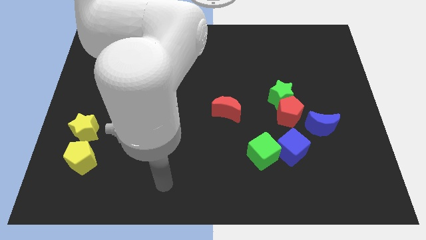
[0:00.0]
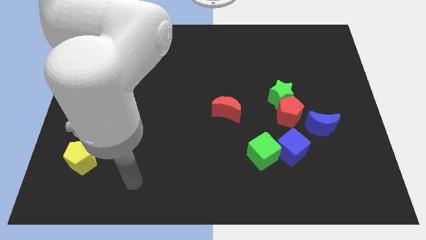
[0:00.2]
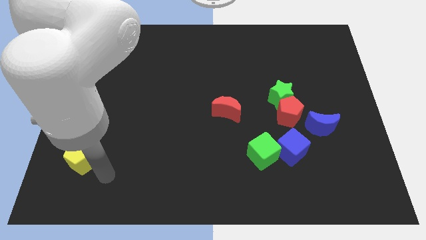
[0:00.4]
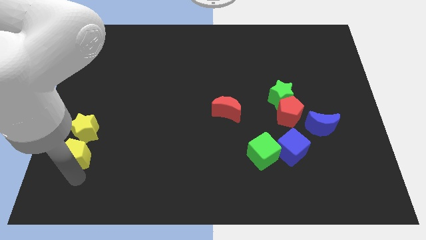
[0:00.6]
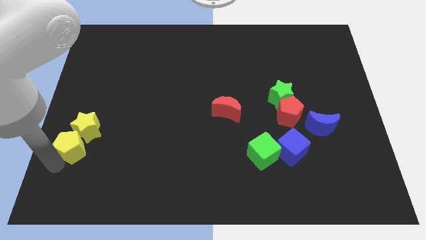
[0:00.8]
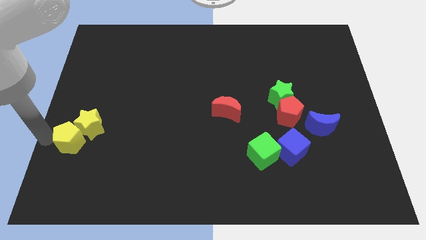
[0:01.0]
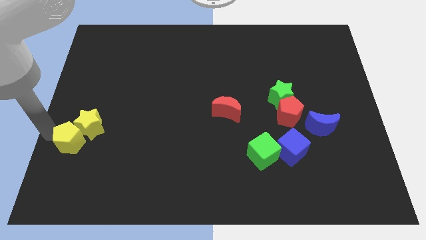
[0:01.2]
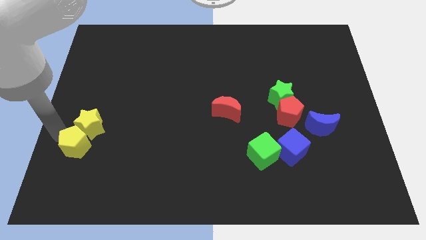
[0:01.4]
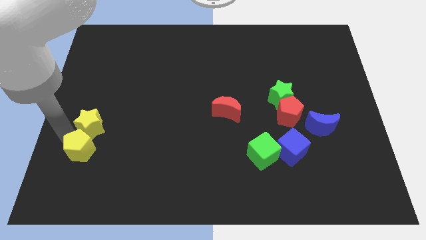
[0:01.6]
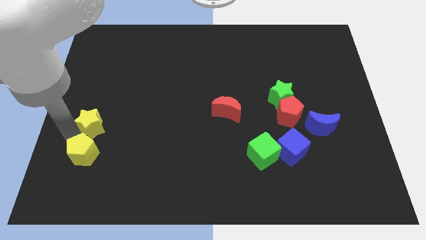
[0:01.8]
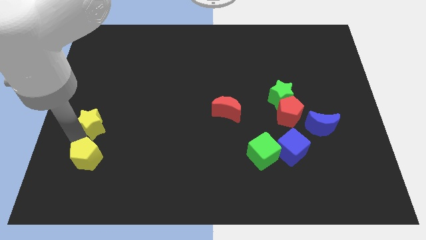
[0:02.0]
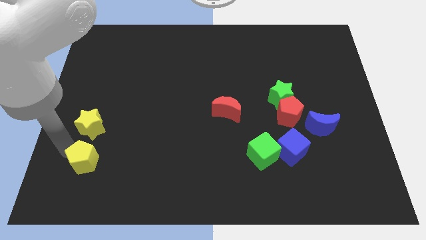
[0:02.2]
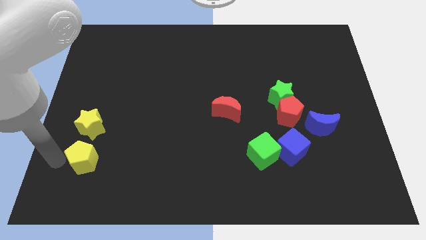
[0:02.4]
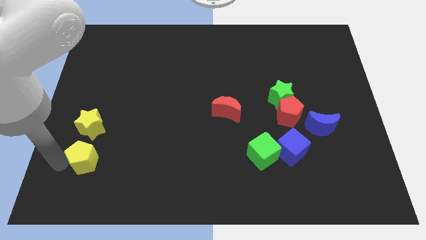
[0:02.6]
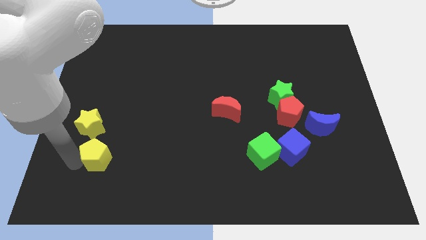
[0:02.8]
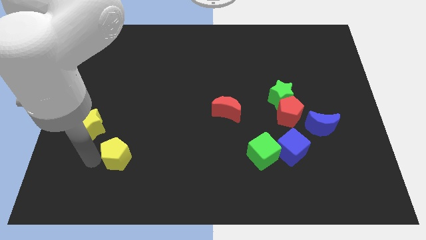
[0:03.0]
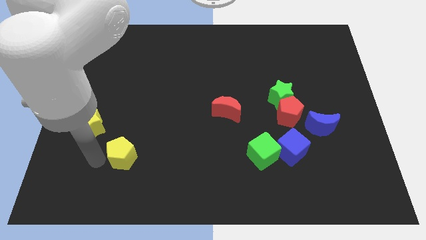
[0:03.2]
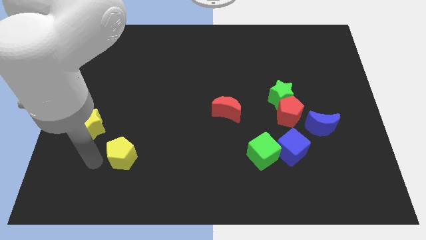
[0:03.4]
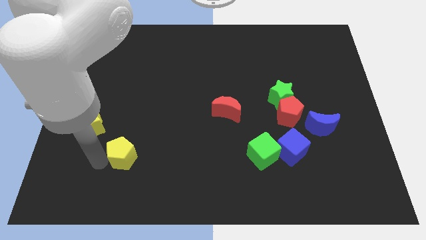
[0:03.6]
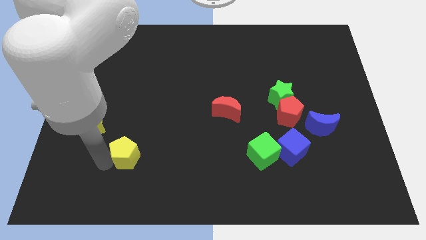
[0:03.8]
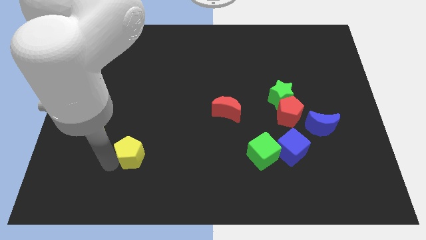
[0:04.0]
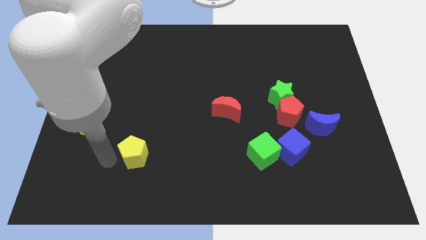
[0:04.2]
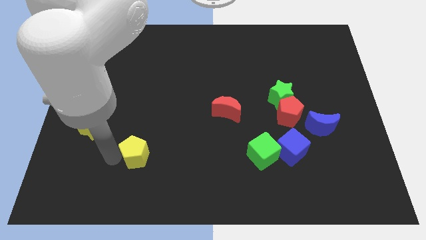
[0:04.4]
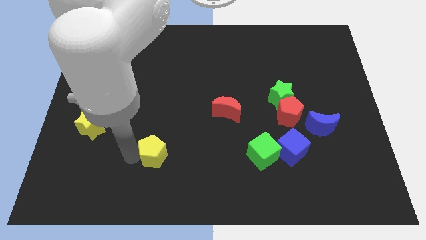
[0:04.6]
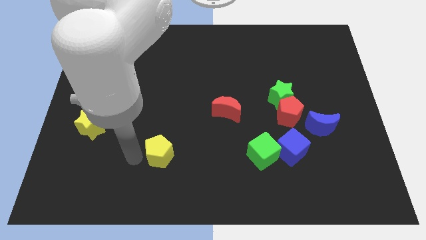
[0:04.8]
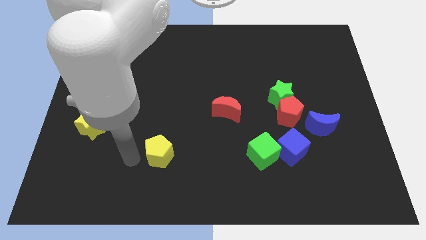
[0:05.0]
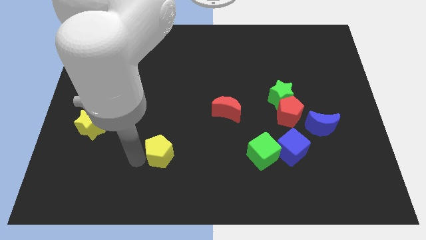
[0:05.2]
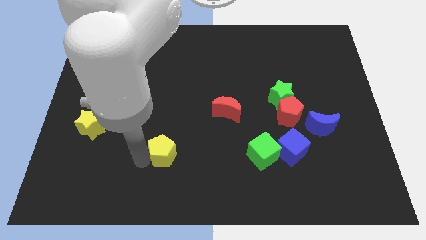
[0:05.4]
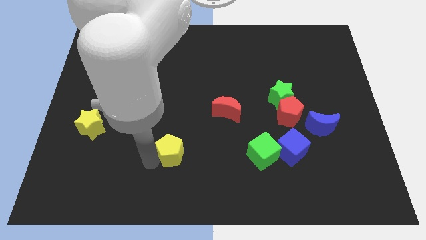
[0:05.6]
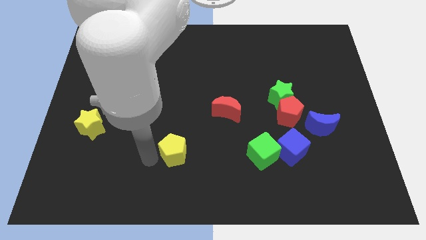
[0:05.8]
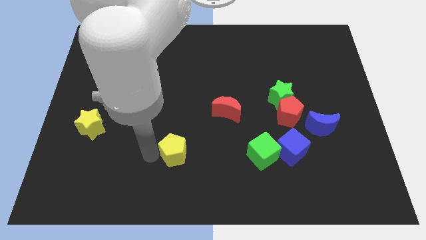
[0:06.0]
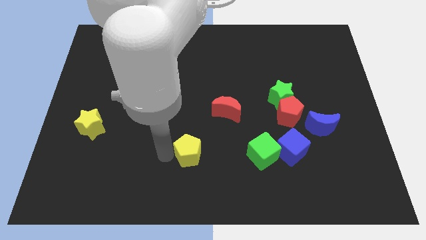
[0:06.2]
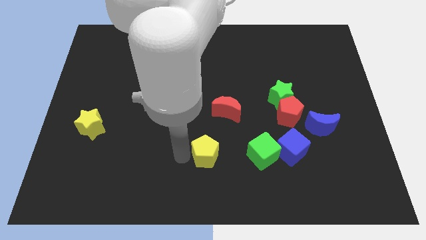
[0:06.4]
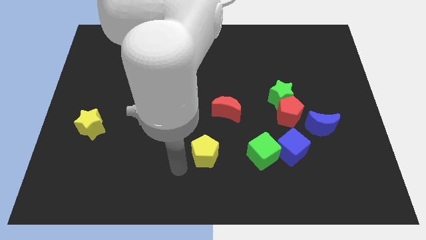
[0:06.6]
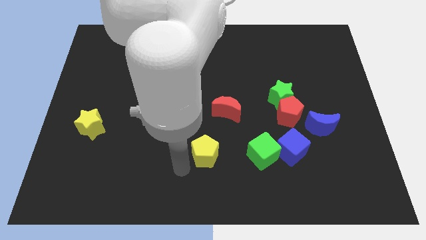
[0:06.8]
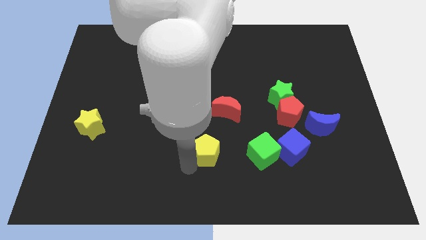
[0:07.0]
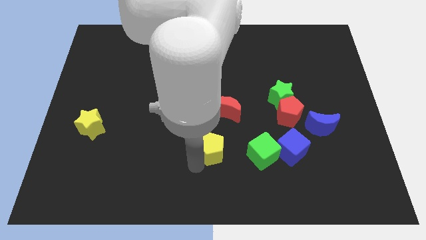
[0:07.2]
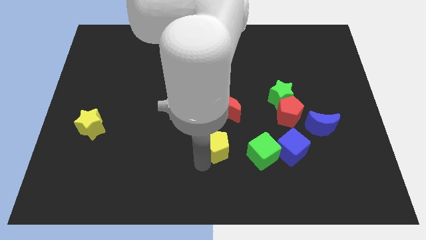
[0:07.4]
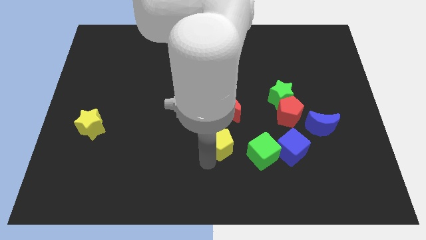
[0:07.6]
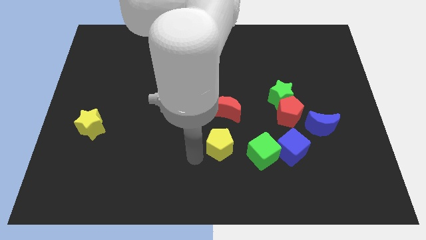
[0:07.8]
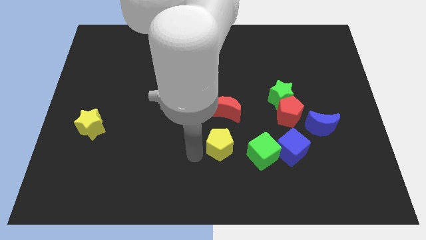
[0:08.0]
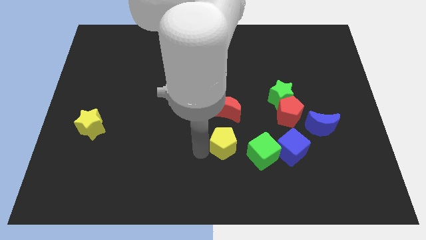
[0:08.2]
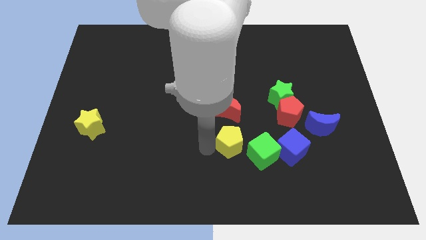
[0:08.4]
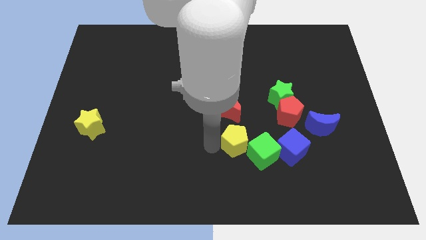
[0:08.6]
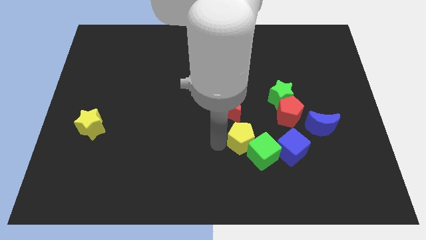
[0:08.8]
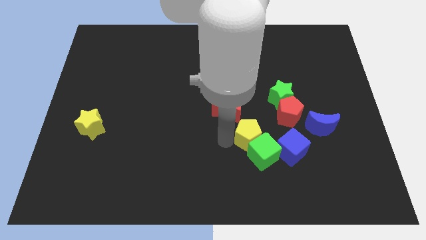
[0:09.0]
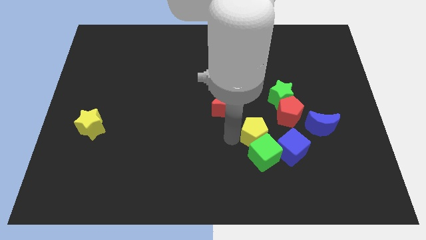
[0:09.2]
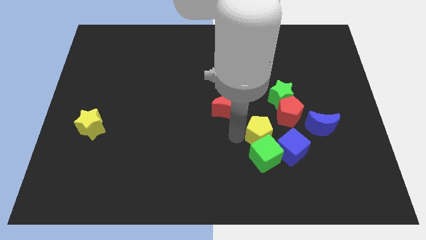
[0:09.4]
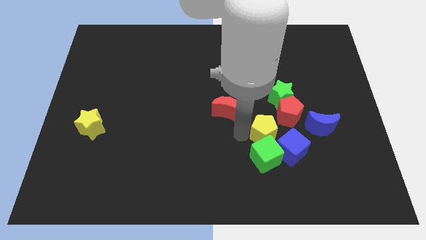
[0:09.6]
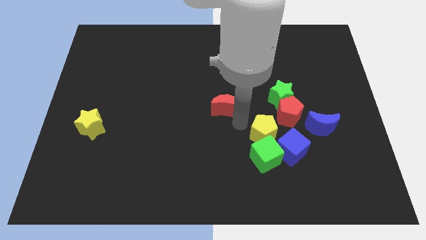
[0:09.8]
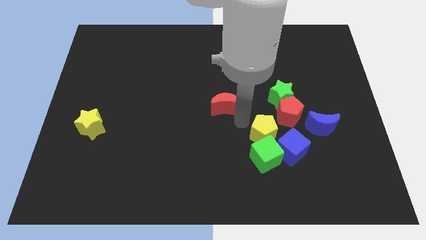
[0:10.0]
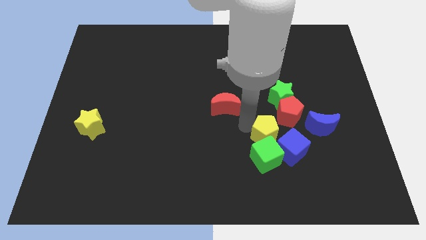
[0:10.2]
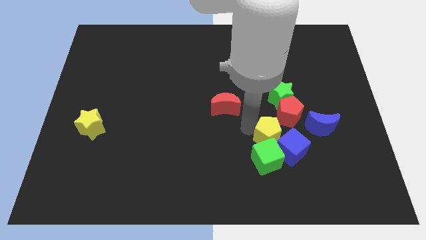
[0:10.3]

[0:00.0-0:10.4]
put the yellow pentagon towards the blue cube

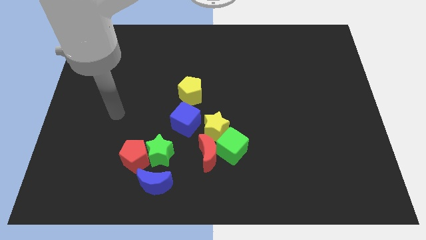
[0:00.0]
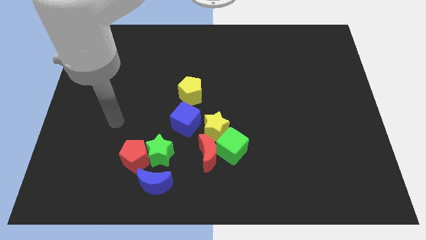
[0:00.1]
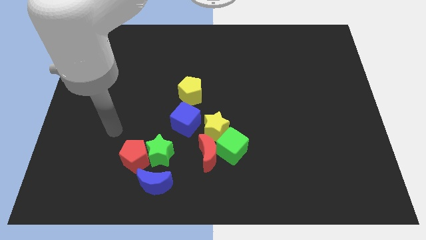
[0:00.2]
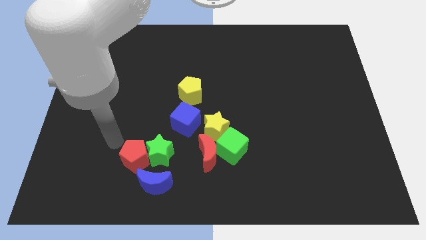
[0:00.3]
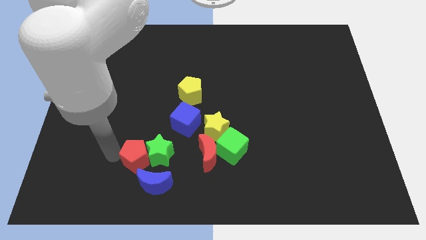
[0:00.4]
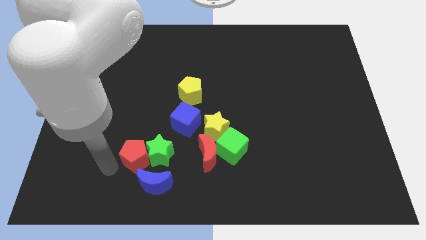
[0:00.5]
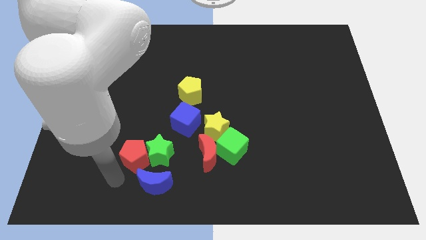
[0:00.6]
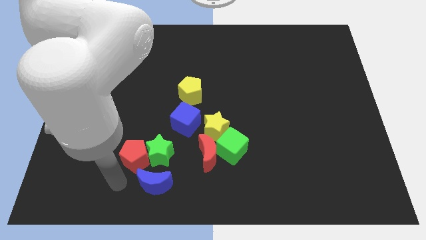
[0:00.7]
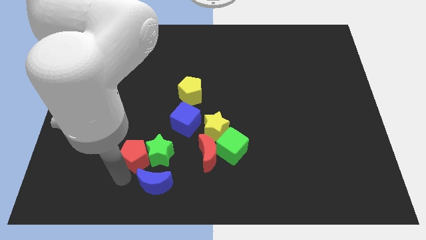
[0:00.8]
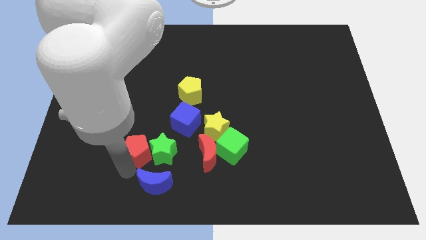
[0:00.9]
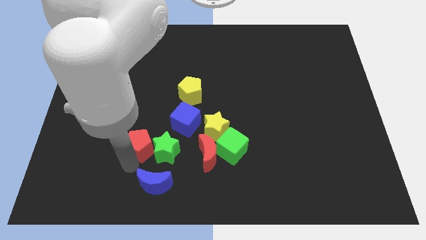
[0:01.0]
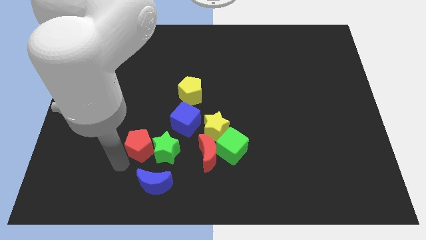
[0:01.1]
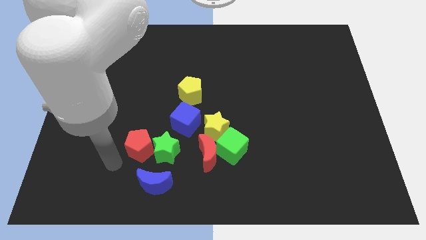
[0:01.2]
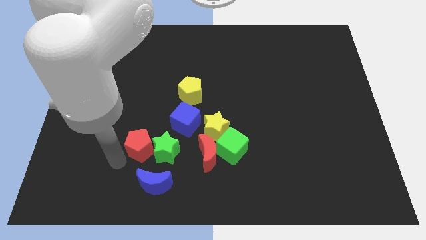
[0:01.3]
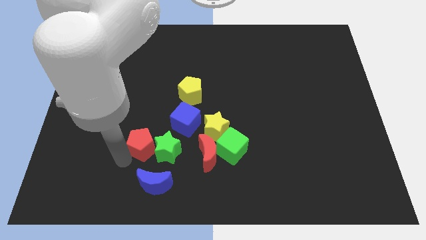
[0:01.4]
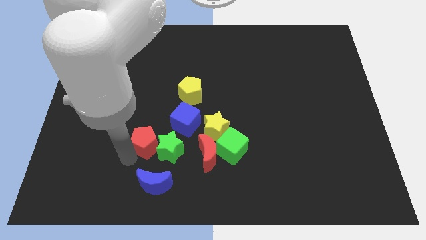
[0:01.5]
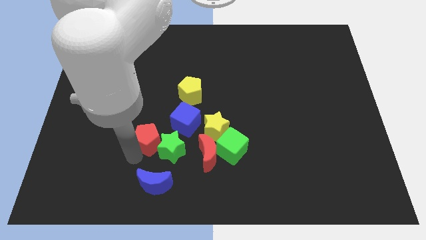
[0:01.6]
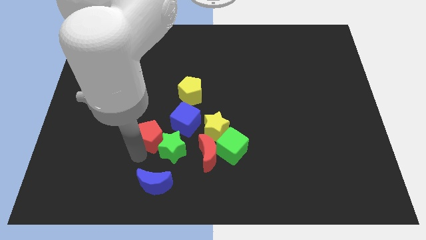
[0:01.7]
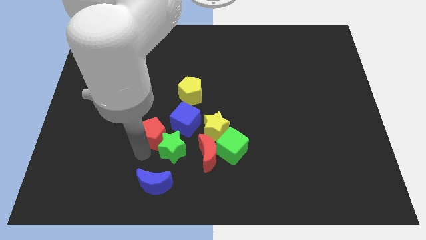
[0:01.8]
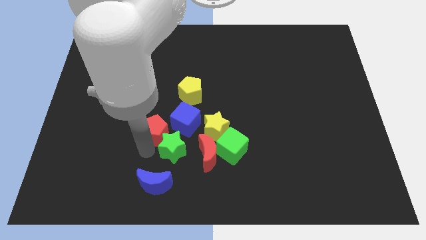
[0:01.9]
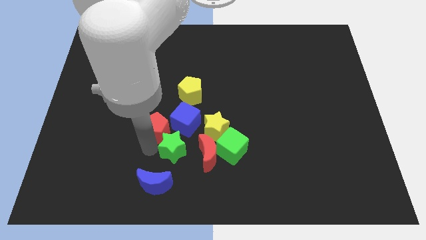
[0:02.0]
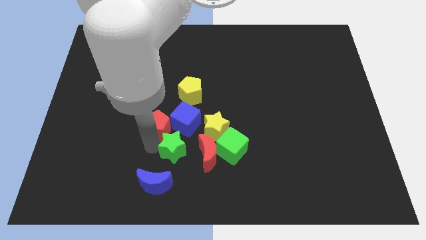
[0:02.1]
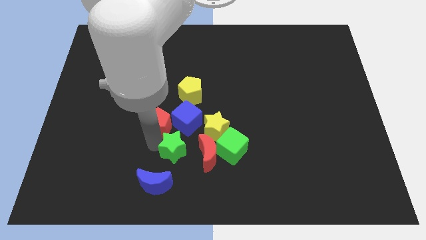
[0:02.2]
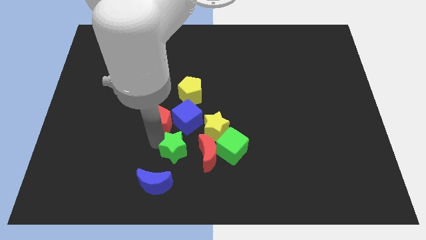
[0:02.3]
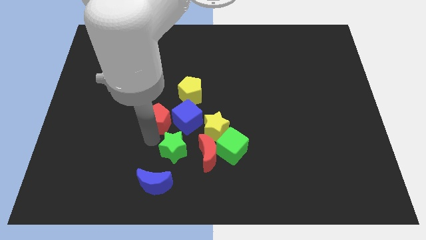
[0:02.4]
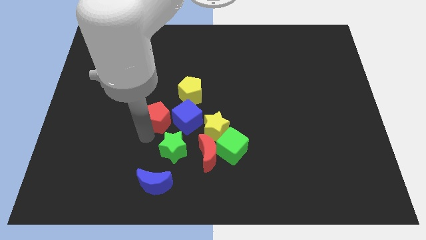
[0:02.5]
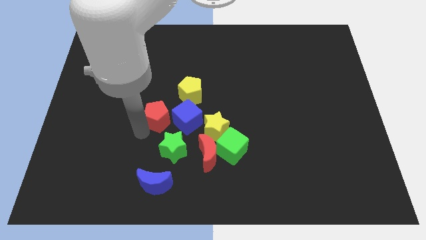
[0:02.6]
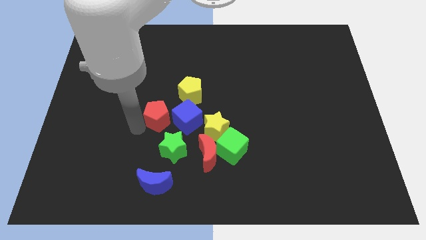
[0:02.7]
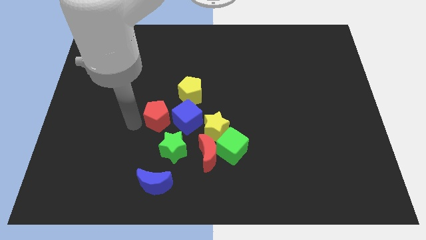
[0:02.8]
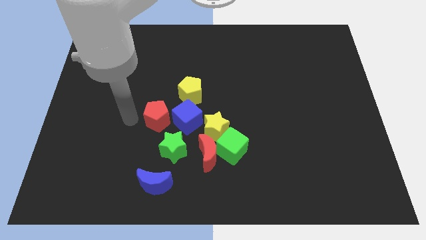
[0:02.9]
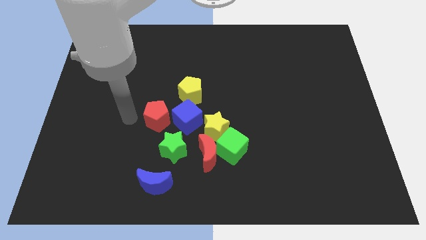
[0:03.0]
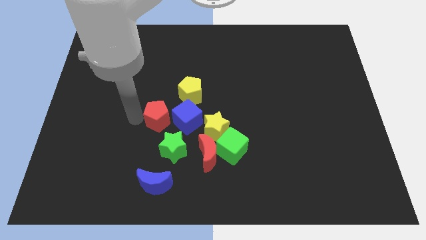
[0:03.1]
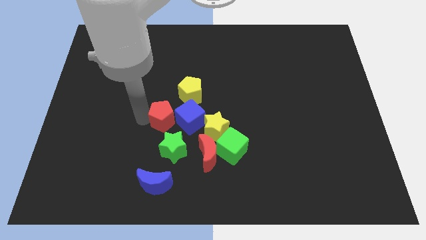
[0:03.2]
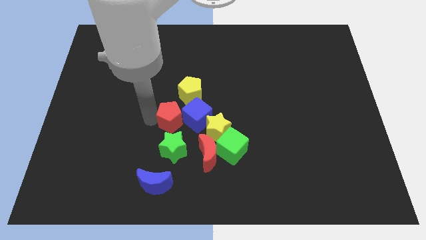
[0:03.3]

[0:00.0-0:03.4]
put the red pentagon close to the blue cube
